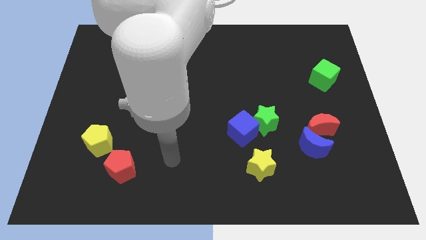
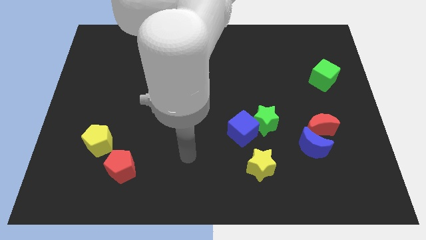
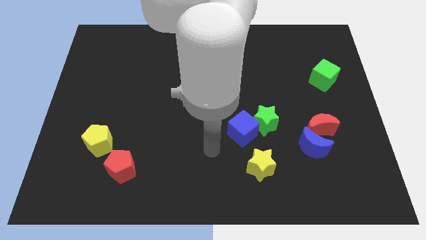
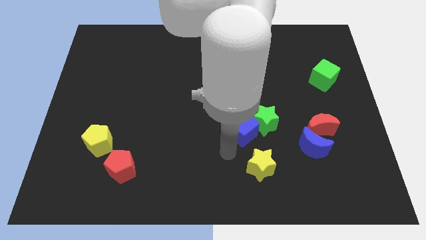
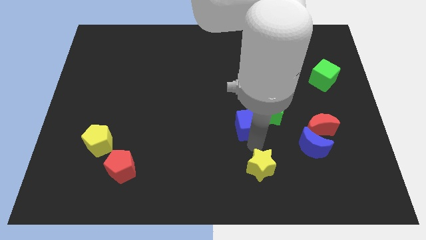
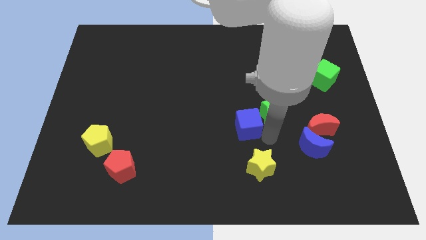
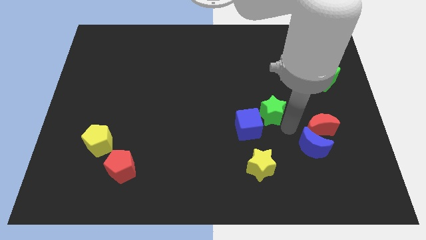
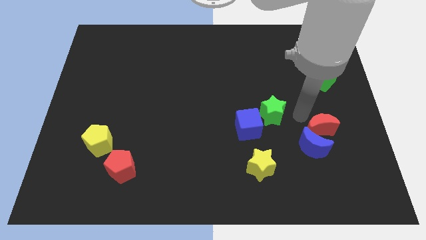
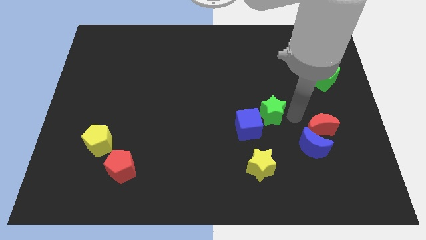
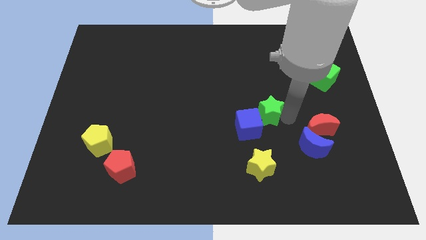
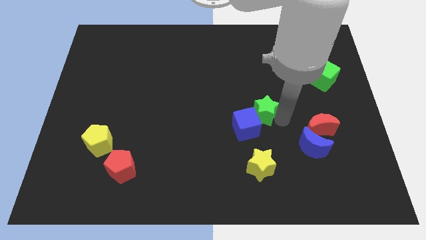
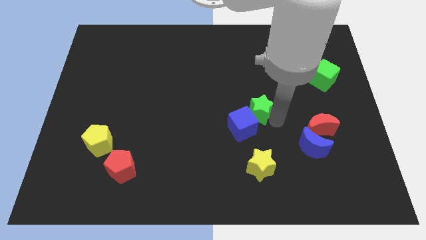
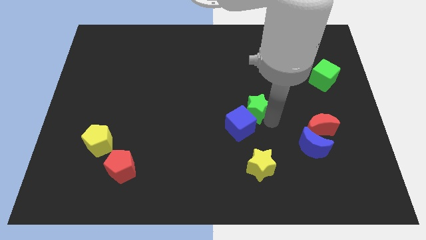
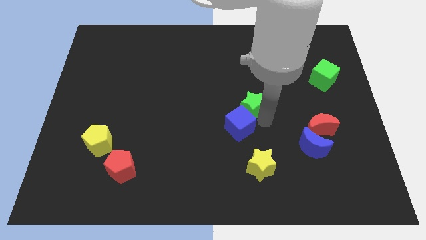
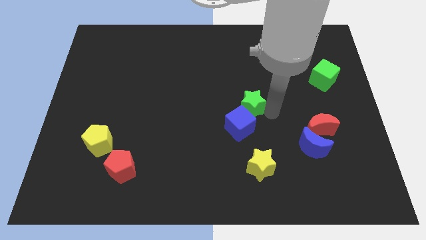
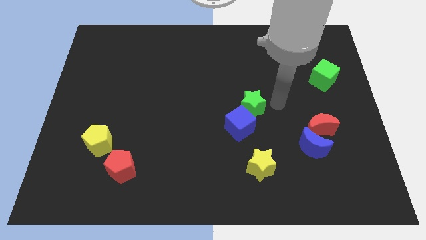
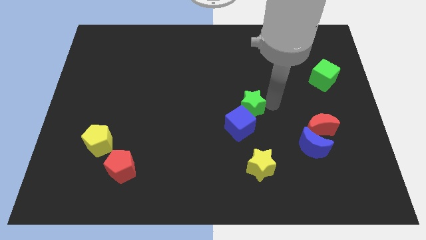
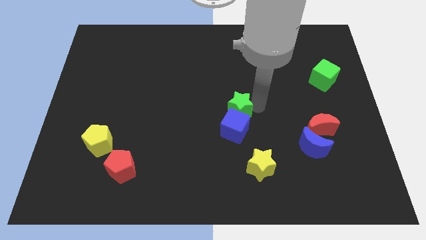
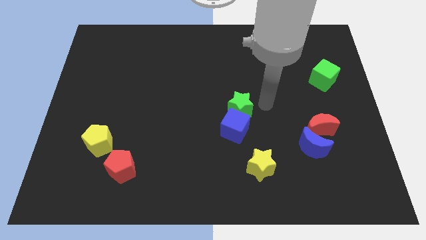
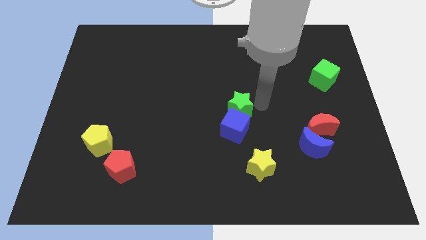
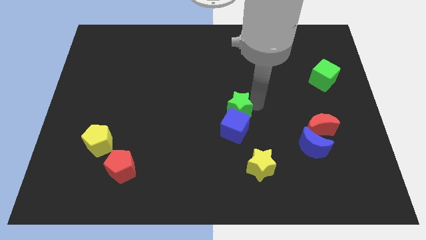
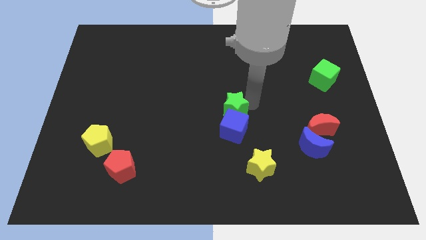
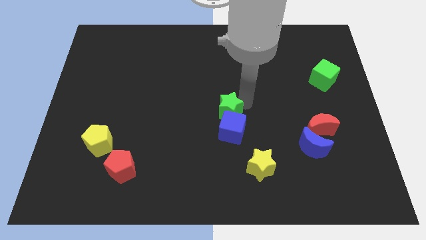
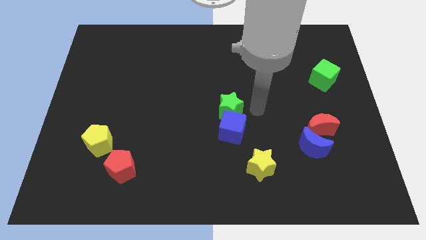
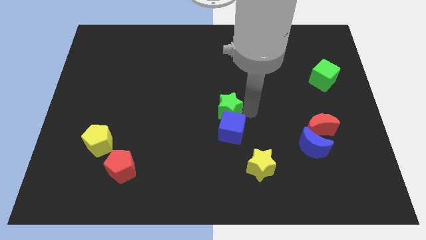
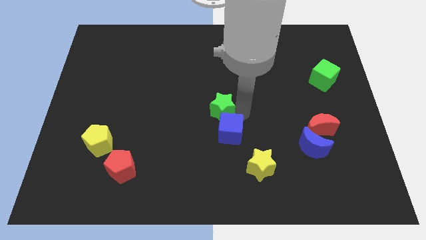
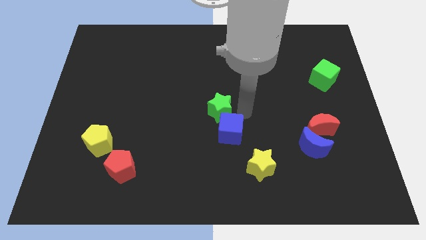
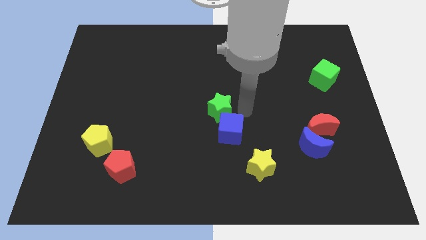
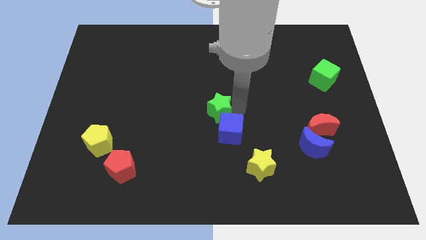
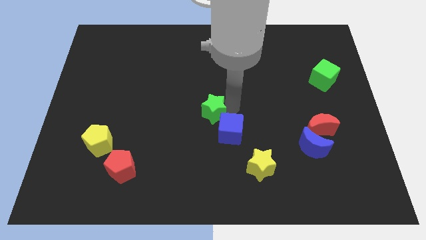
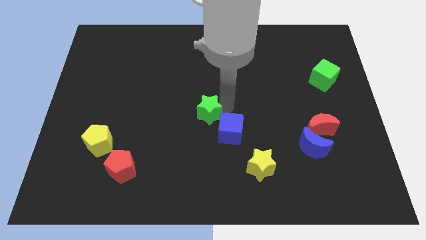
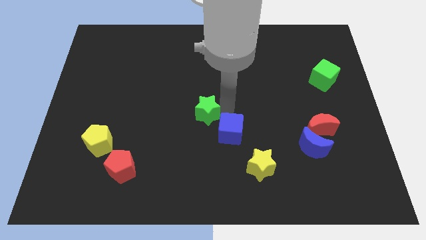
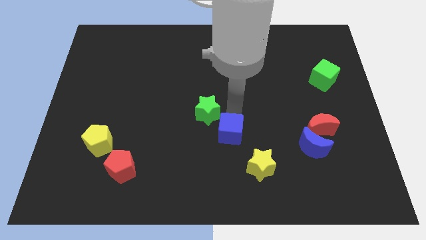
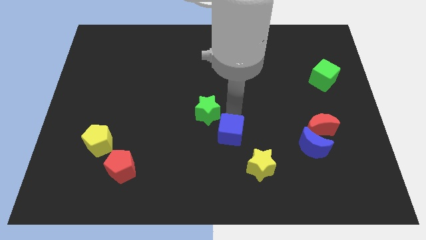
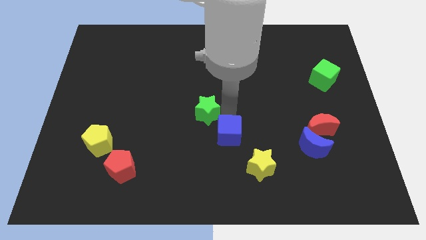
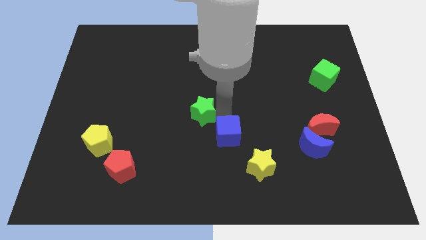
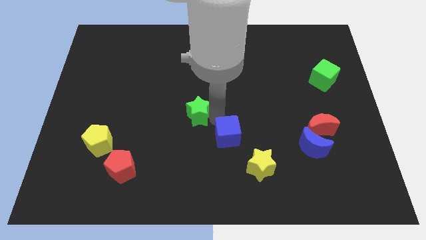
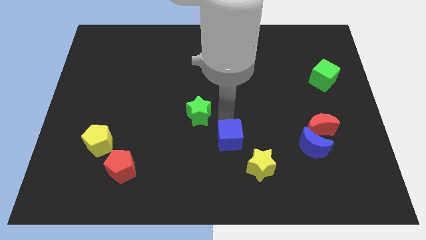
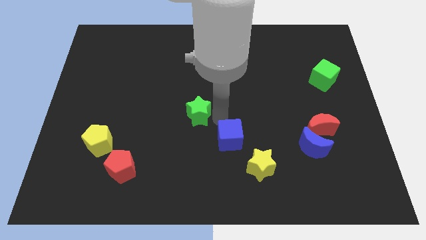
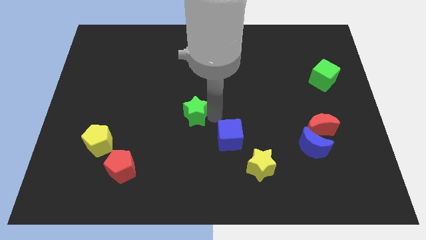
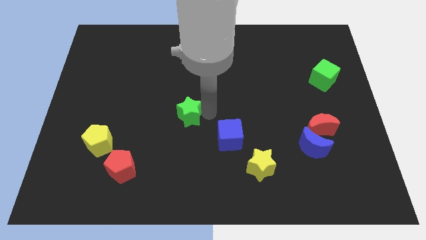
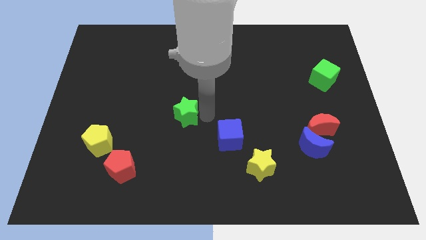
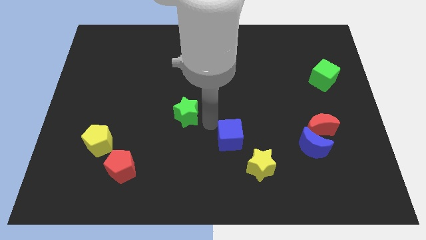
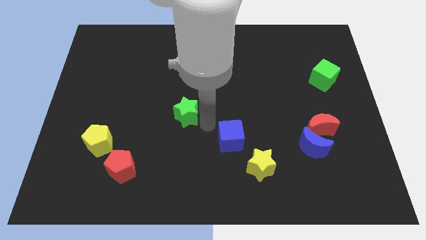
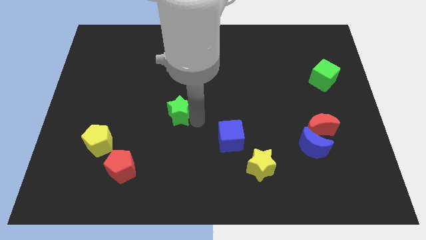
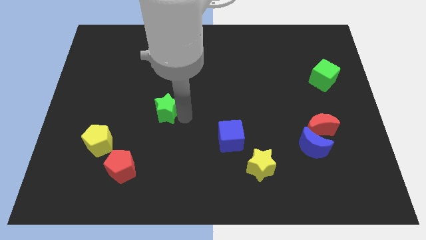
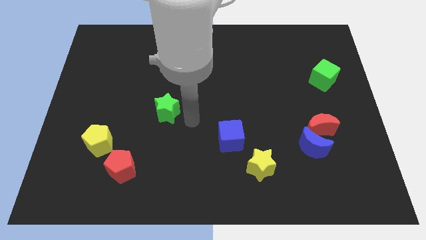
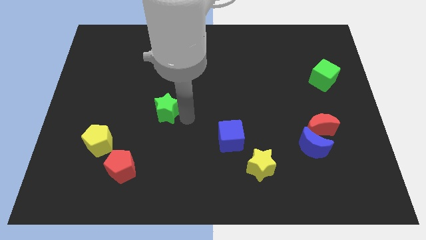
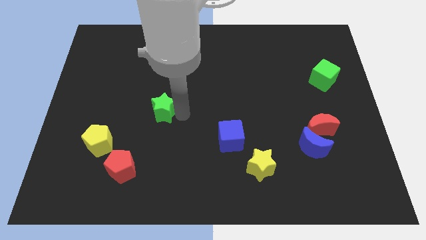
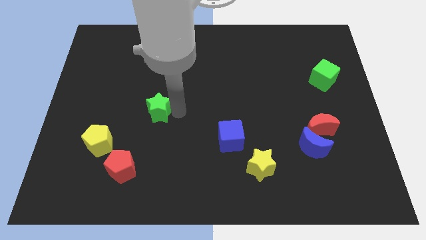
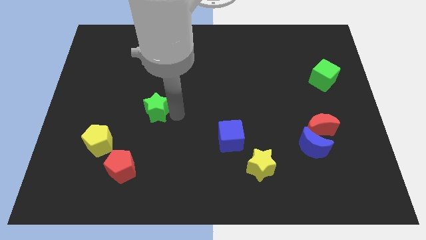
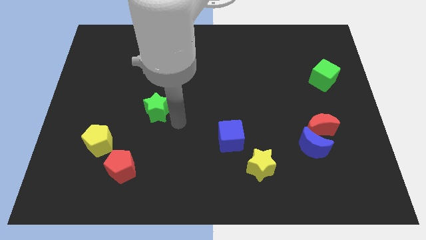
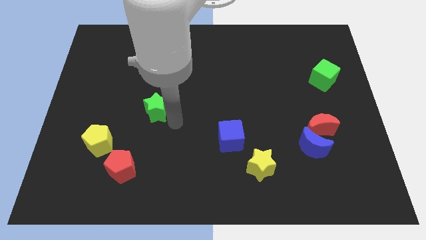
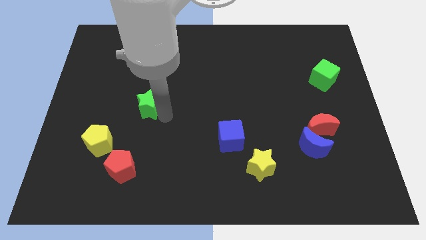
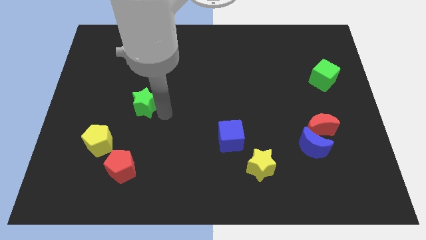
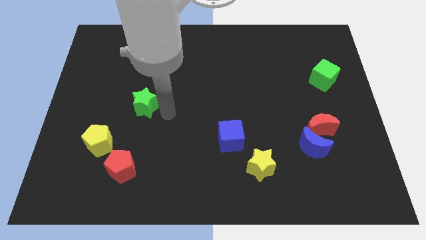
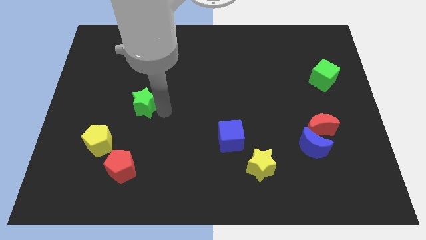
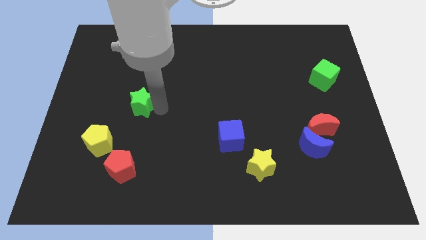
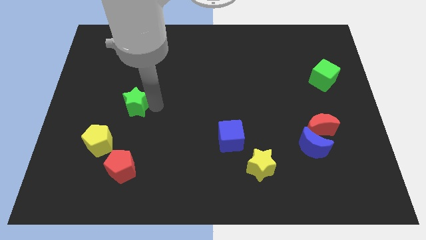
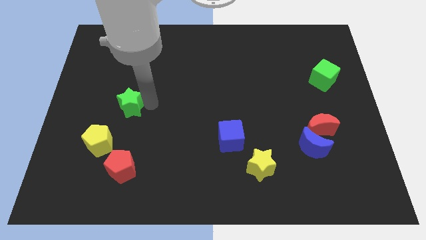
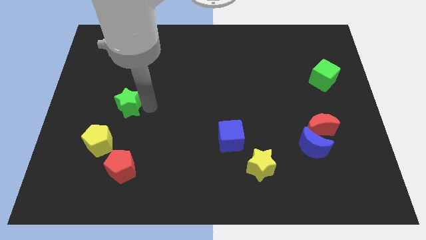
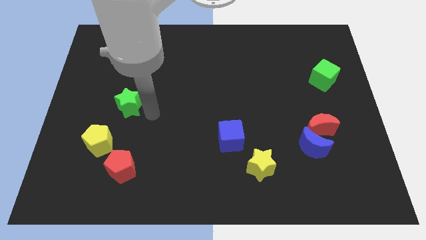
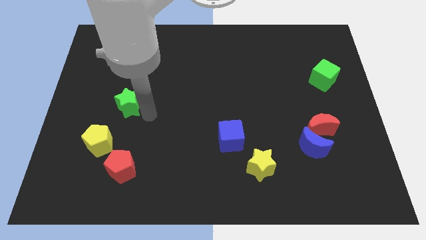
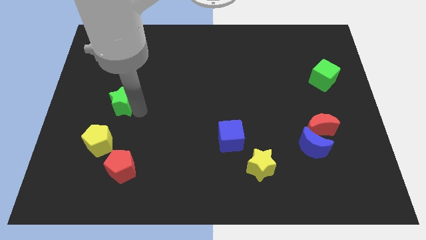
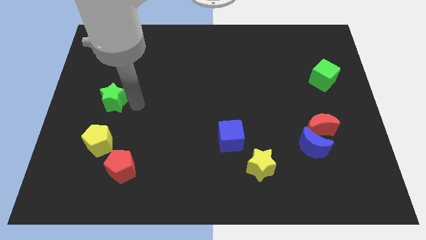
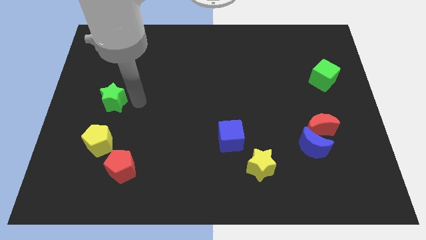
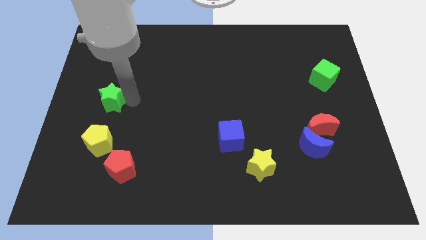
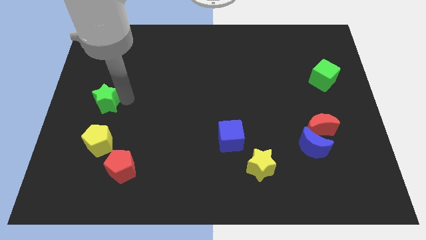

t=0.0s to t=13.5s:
slide the green star to the left side of the board
